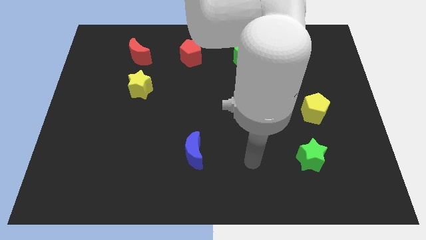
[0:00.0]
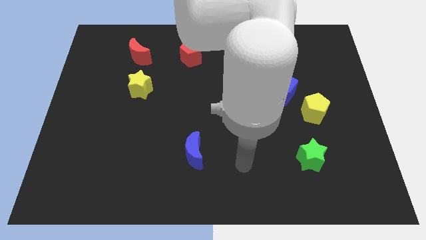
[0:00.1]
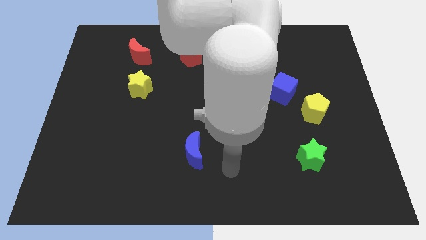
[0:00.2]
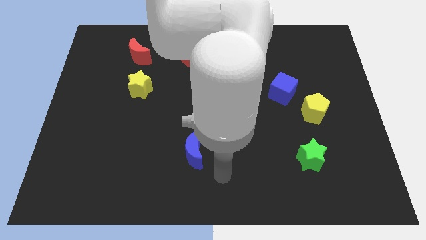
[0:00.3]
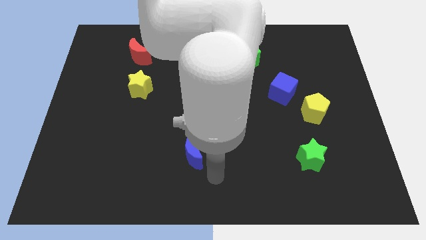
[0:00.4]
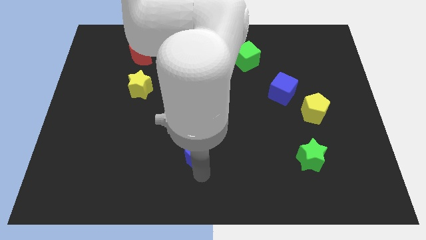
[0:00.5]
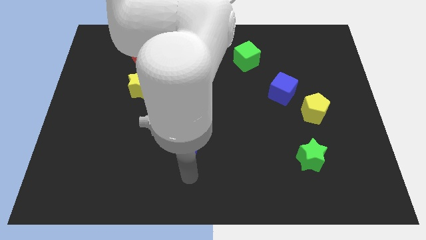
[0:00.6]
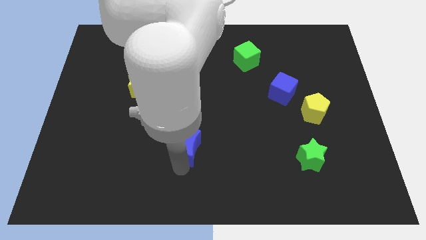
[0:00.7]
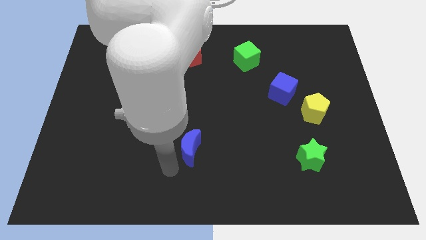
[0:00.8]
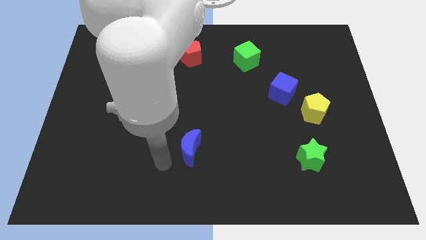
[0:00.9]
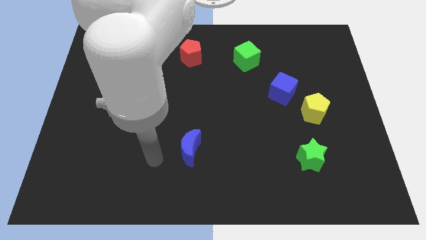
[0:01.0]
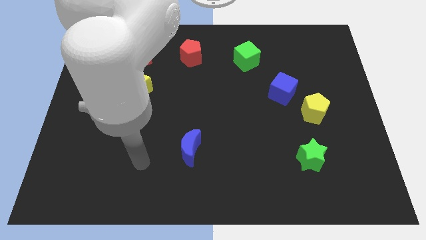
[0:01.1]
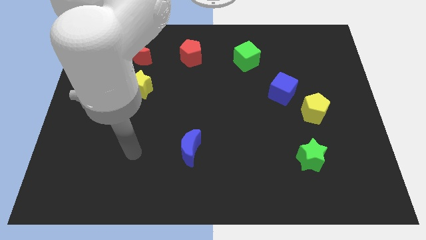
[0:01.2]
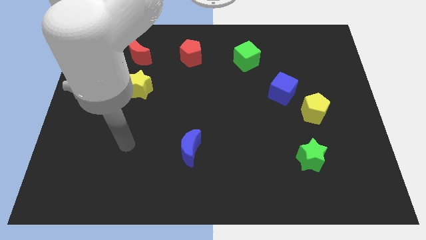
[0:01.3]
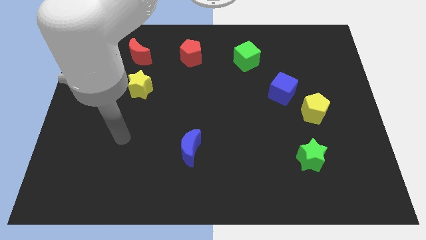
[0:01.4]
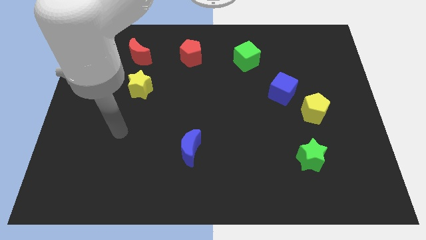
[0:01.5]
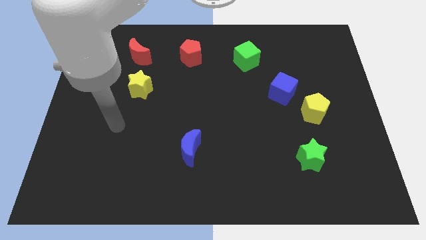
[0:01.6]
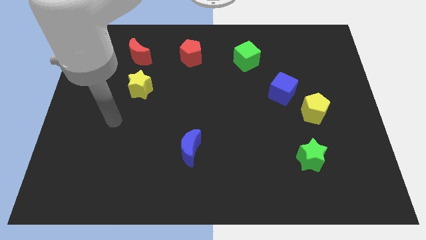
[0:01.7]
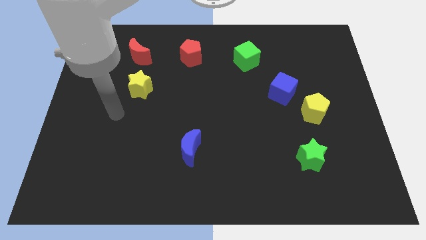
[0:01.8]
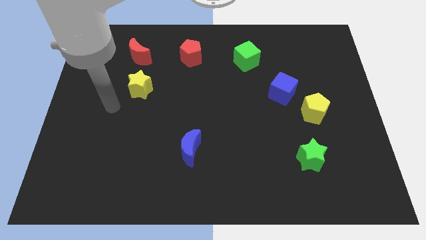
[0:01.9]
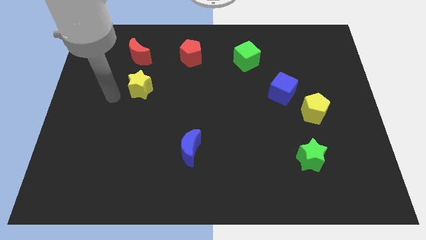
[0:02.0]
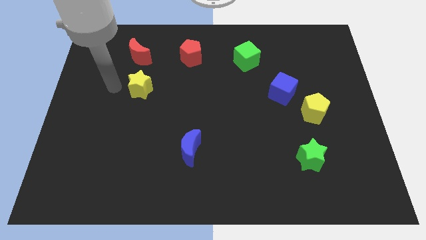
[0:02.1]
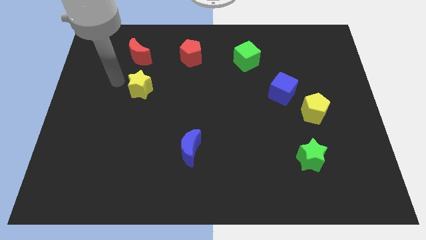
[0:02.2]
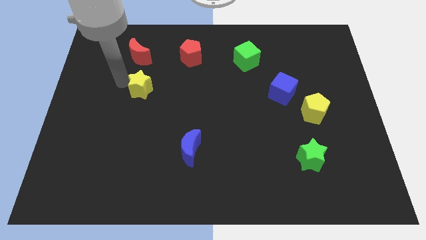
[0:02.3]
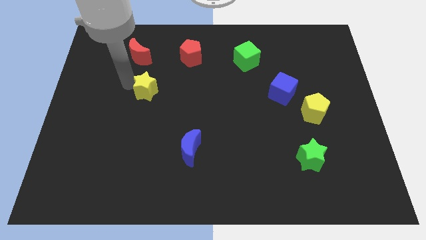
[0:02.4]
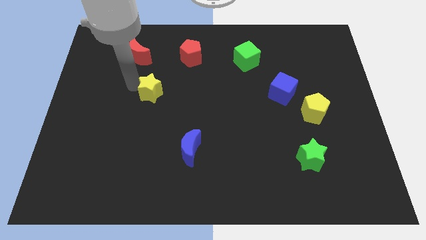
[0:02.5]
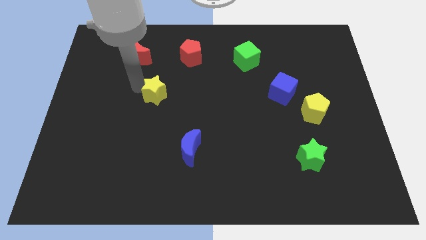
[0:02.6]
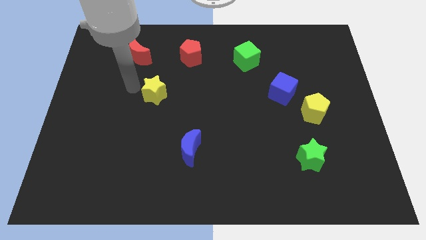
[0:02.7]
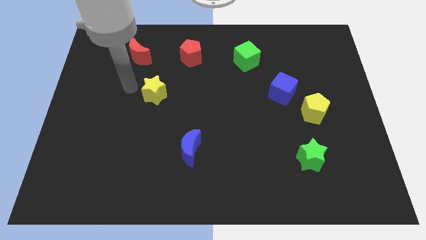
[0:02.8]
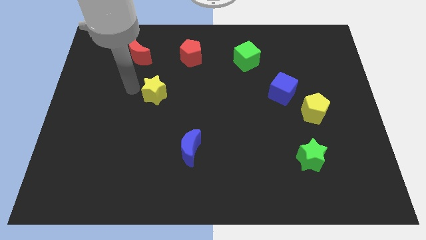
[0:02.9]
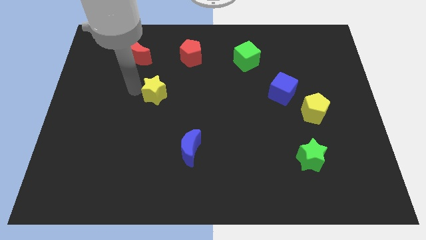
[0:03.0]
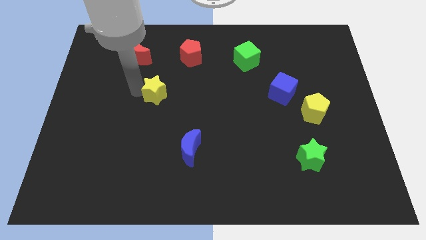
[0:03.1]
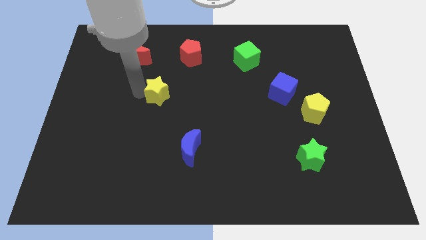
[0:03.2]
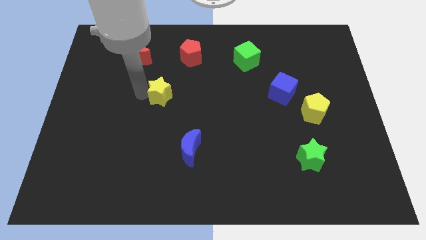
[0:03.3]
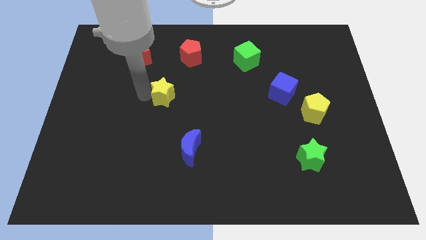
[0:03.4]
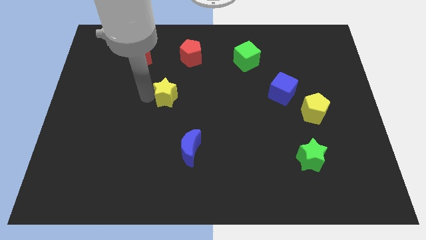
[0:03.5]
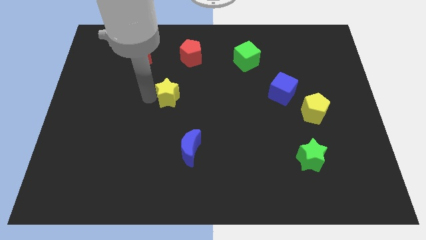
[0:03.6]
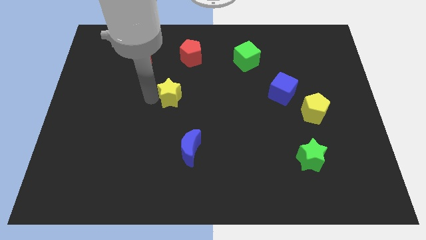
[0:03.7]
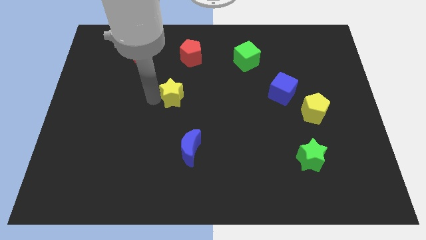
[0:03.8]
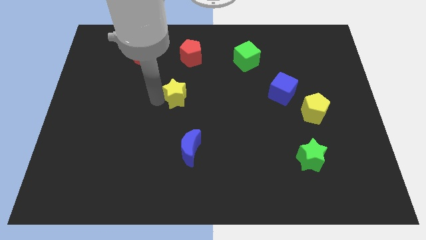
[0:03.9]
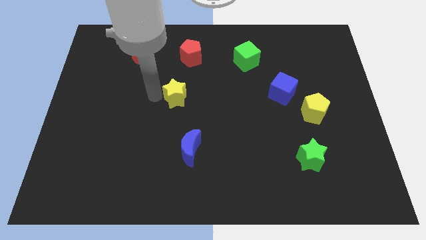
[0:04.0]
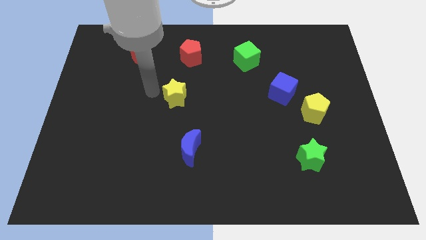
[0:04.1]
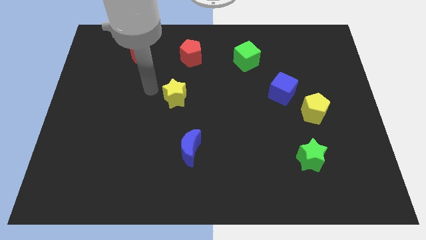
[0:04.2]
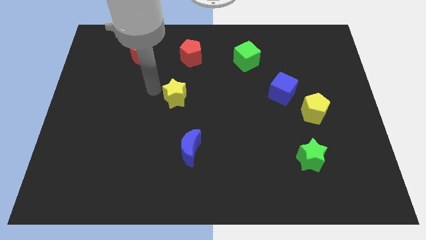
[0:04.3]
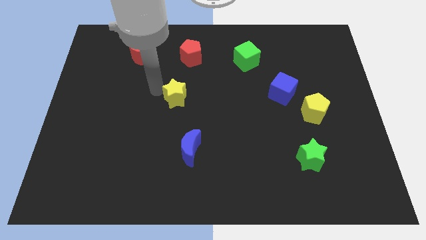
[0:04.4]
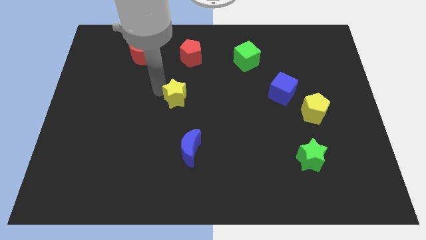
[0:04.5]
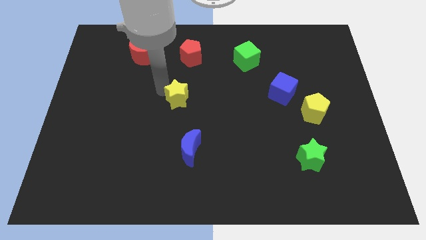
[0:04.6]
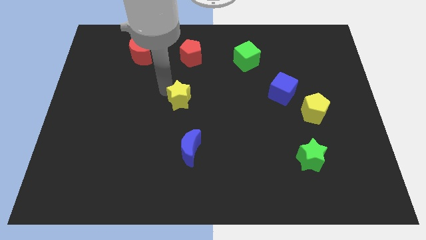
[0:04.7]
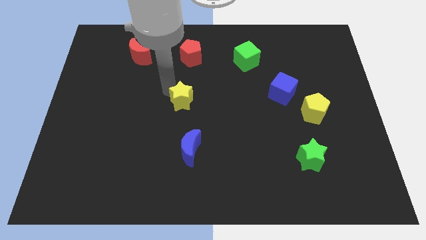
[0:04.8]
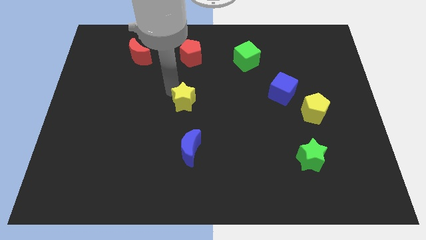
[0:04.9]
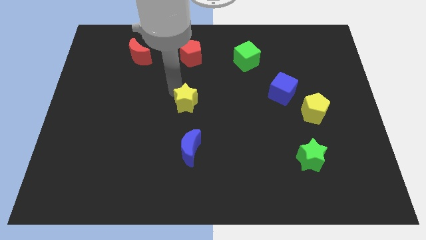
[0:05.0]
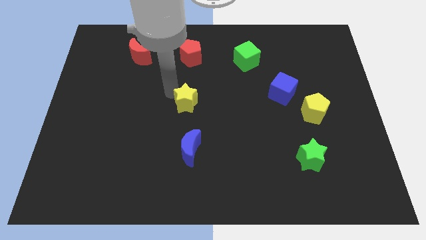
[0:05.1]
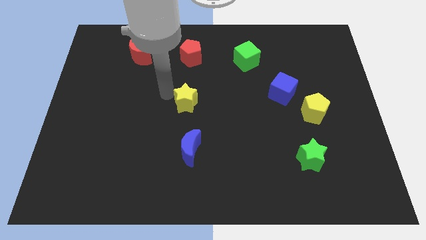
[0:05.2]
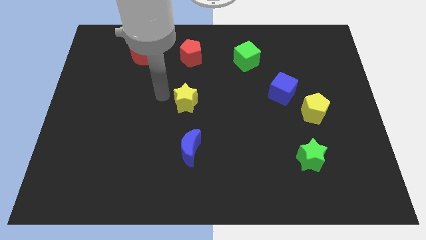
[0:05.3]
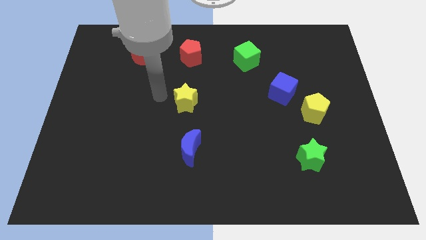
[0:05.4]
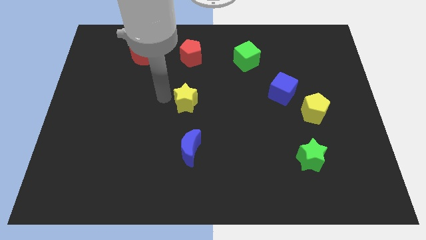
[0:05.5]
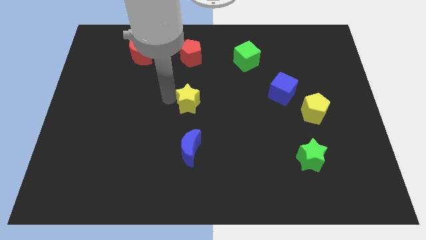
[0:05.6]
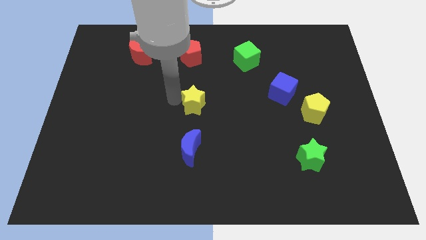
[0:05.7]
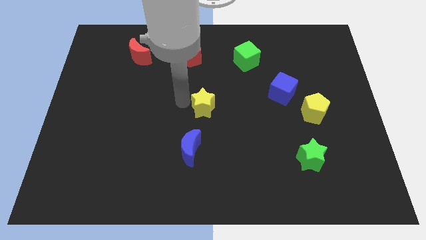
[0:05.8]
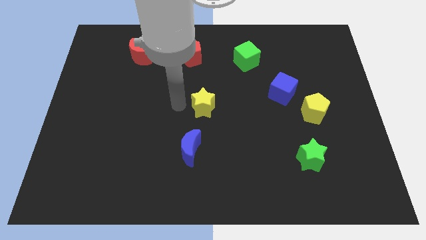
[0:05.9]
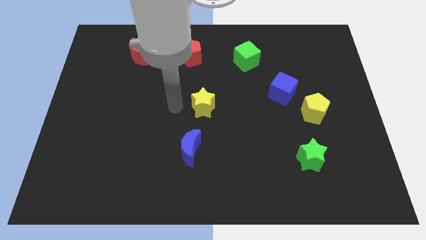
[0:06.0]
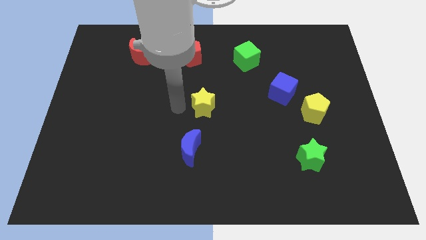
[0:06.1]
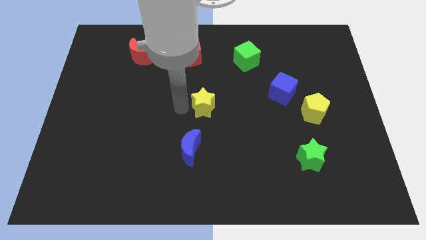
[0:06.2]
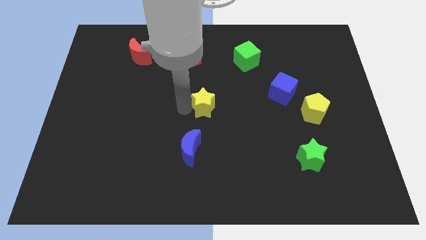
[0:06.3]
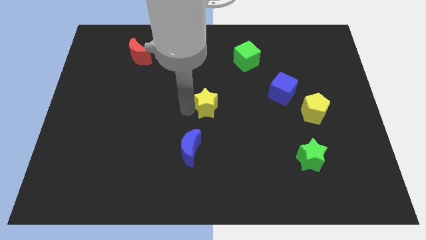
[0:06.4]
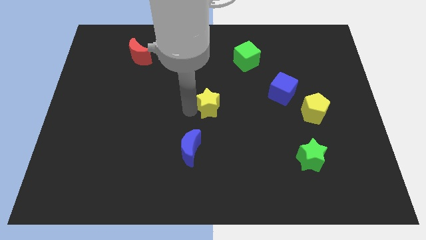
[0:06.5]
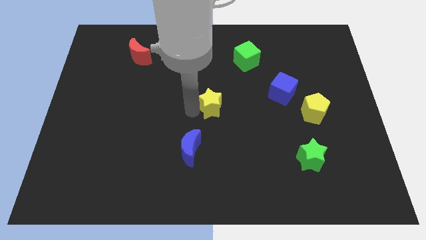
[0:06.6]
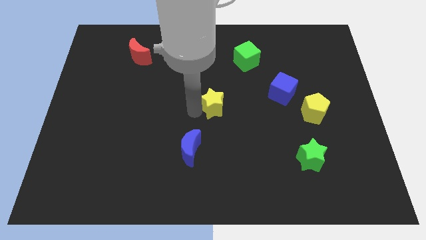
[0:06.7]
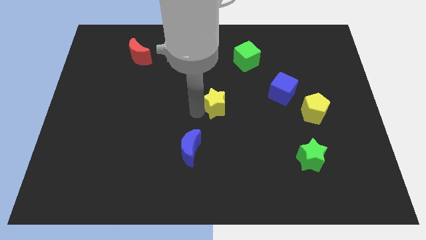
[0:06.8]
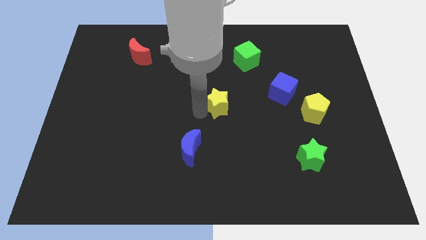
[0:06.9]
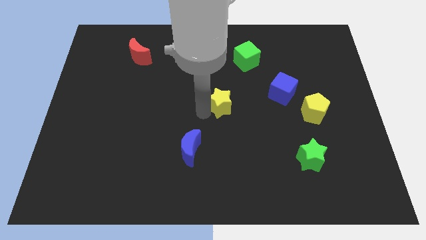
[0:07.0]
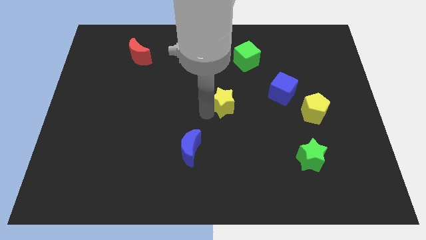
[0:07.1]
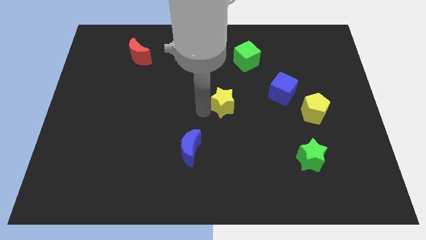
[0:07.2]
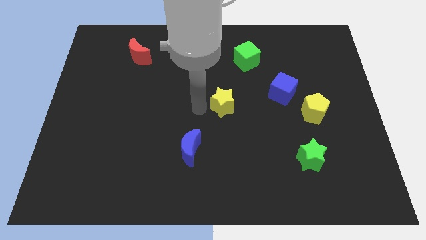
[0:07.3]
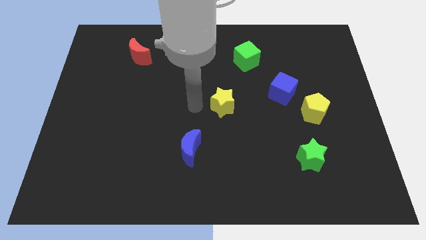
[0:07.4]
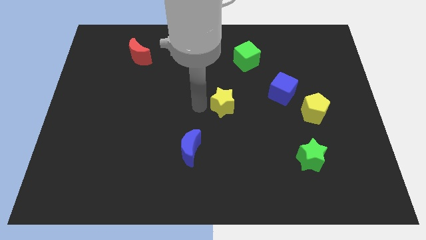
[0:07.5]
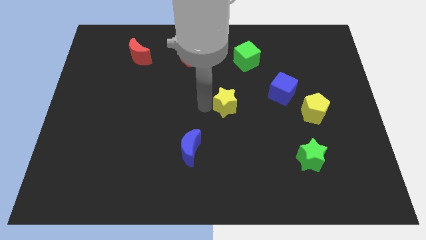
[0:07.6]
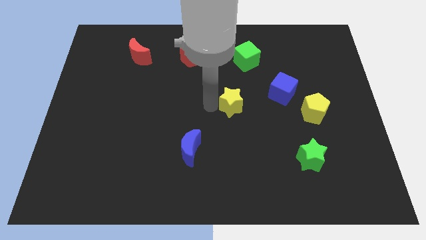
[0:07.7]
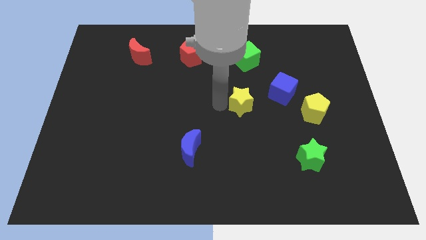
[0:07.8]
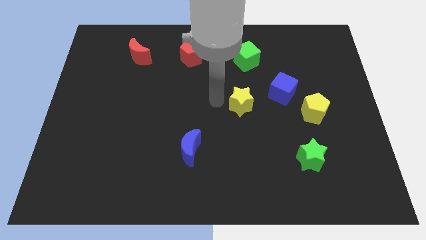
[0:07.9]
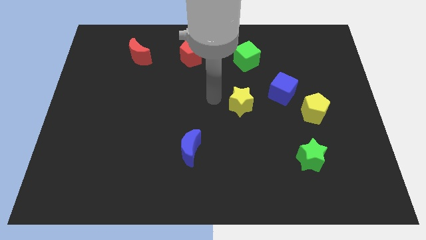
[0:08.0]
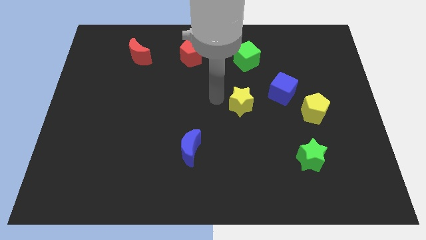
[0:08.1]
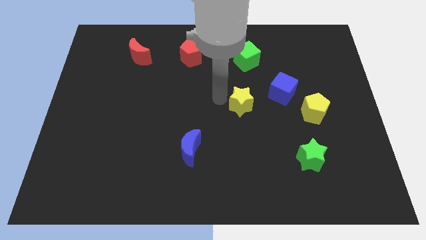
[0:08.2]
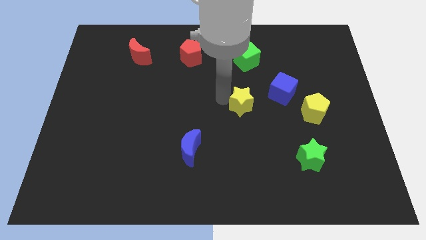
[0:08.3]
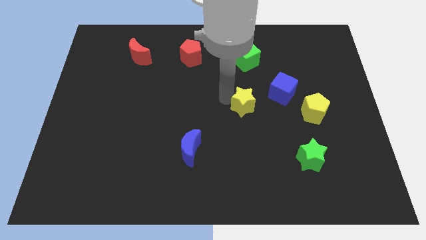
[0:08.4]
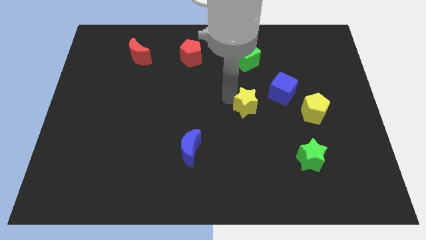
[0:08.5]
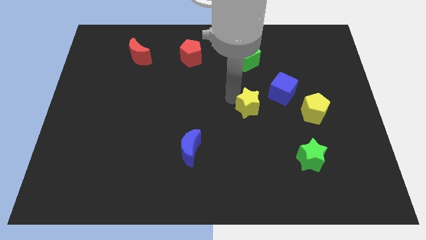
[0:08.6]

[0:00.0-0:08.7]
move the yellow star left of the yellow pentagon
